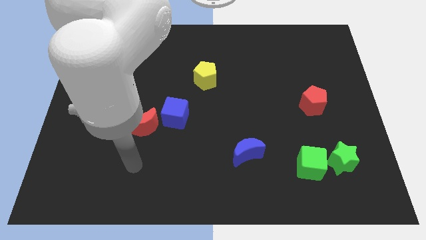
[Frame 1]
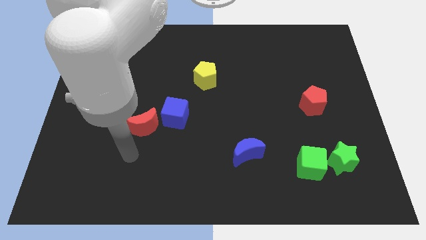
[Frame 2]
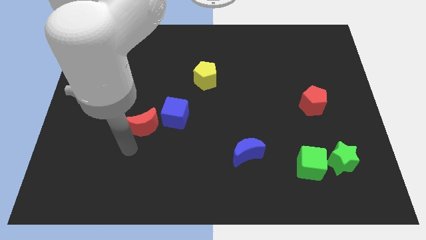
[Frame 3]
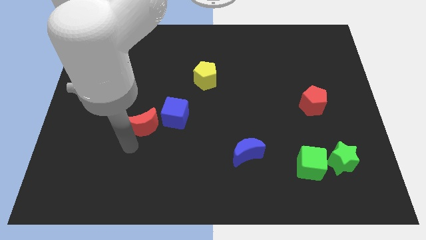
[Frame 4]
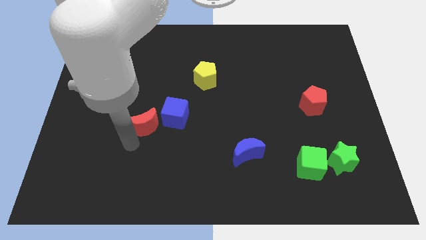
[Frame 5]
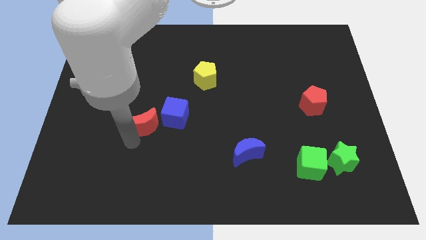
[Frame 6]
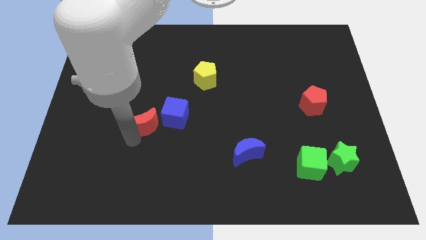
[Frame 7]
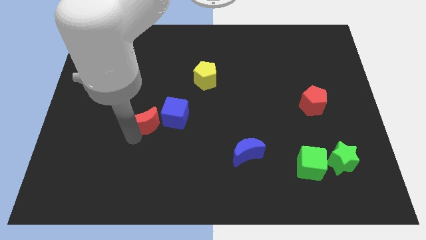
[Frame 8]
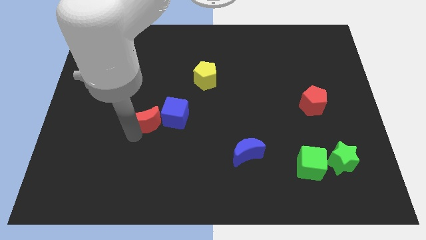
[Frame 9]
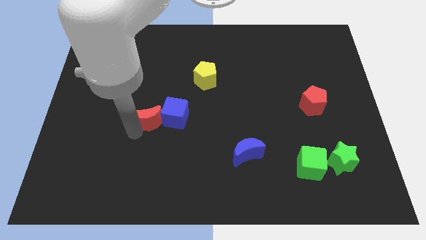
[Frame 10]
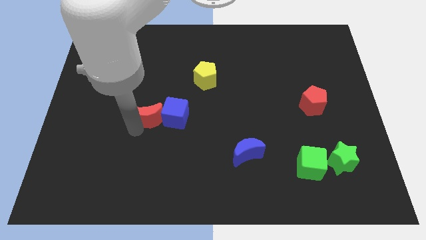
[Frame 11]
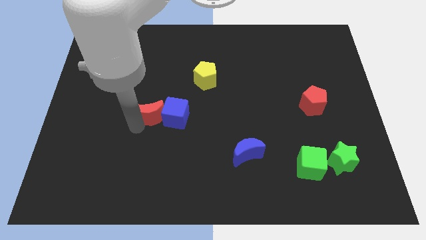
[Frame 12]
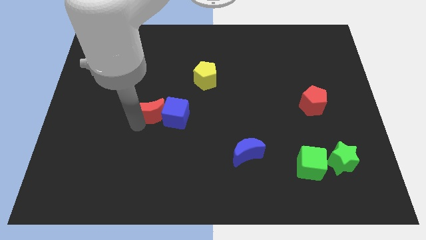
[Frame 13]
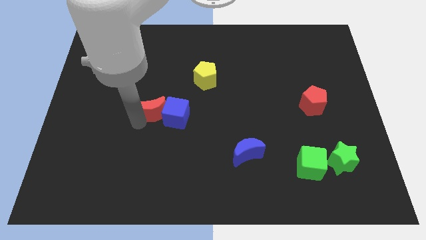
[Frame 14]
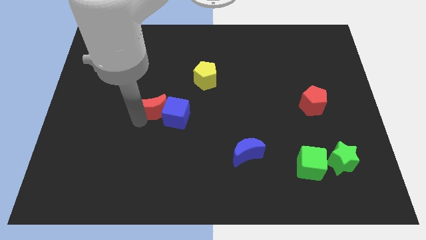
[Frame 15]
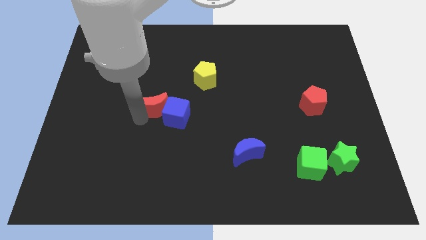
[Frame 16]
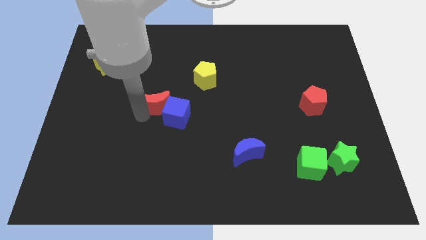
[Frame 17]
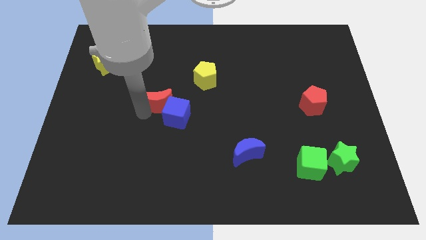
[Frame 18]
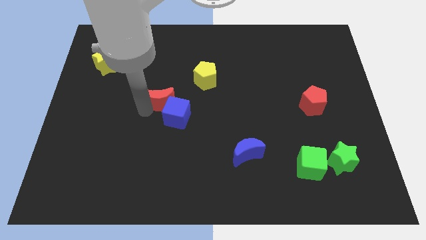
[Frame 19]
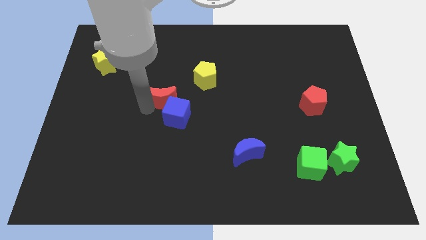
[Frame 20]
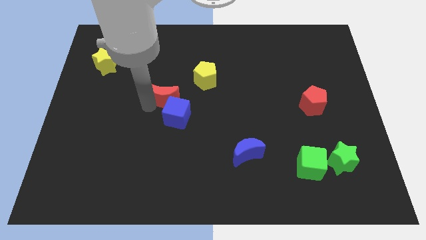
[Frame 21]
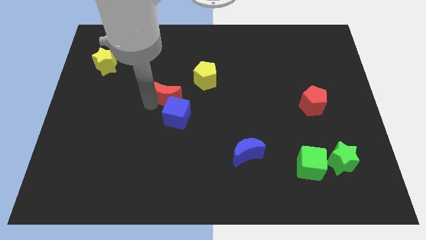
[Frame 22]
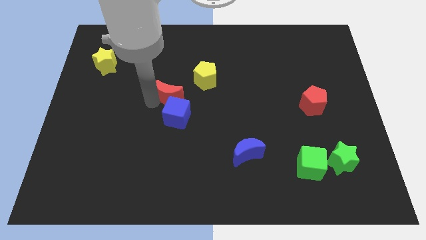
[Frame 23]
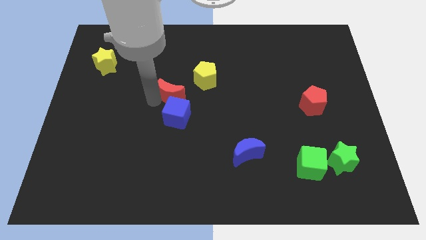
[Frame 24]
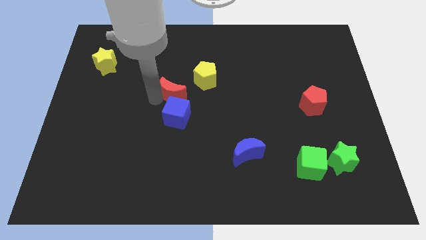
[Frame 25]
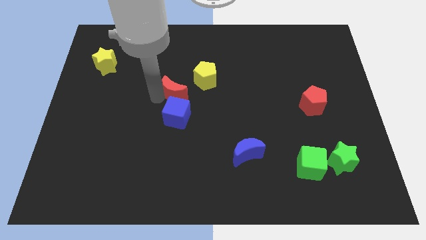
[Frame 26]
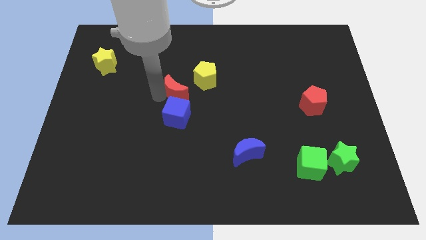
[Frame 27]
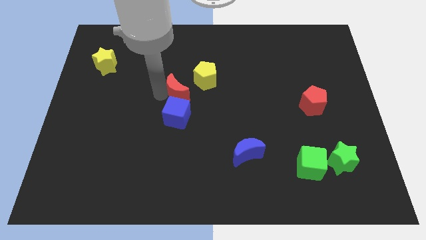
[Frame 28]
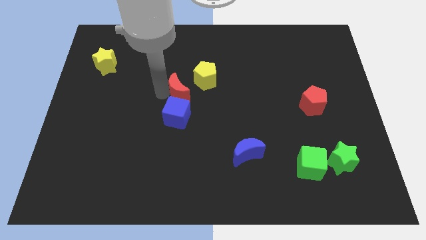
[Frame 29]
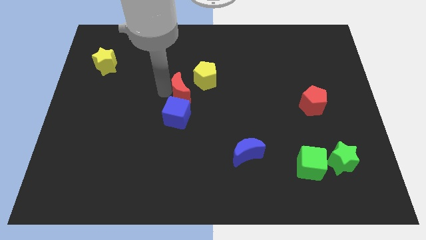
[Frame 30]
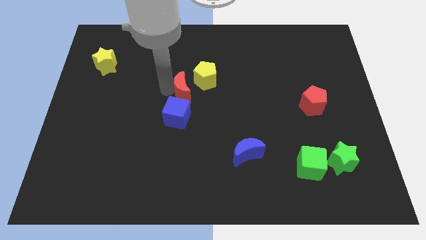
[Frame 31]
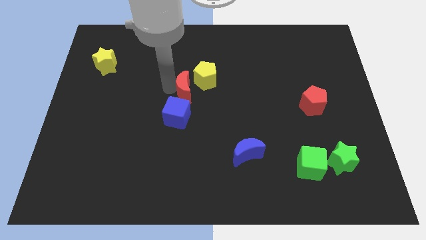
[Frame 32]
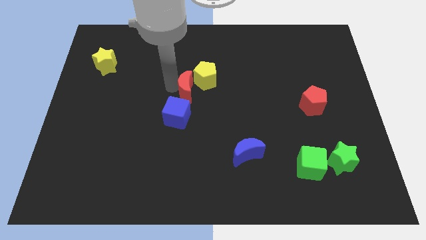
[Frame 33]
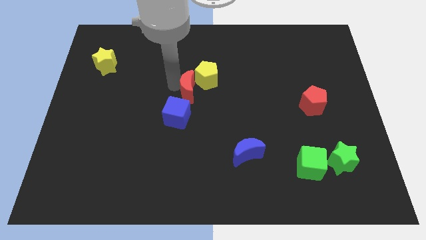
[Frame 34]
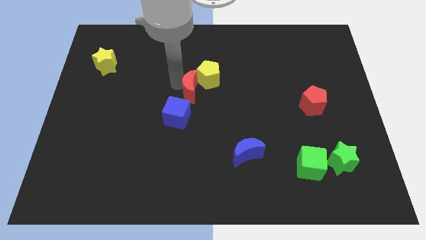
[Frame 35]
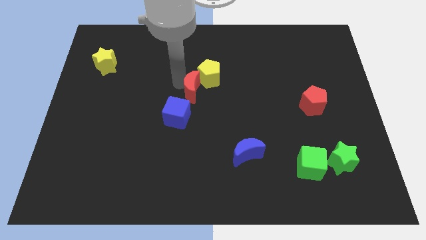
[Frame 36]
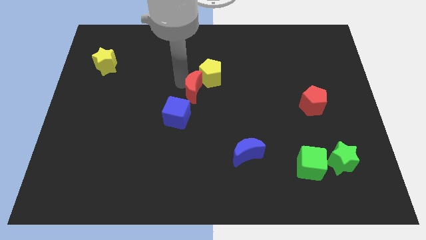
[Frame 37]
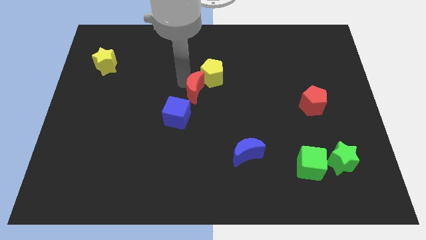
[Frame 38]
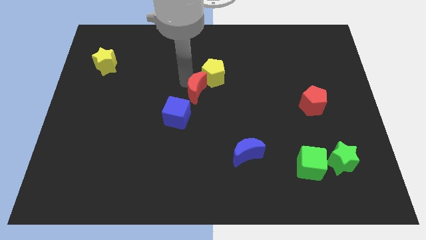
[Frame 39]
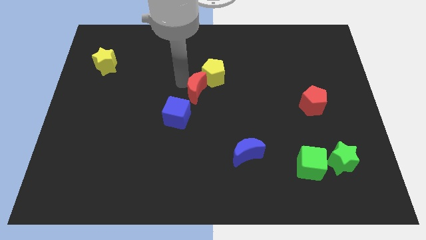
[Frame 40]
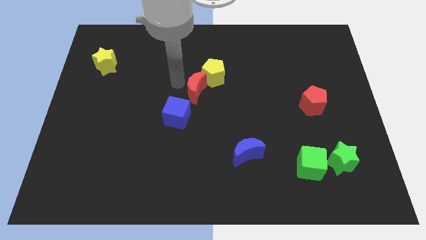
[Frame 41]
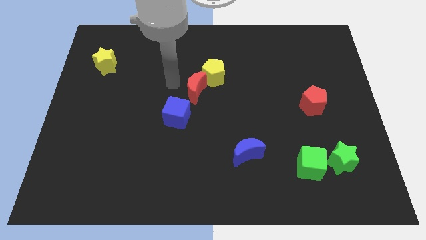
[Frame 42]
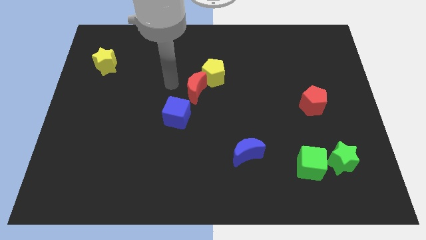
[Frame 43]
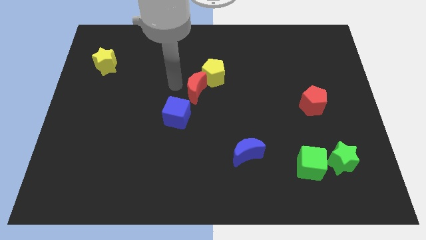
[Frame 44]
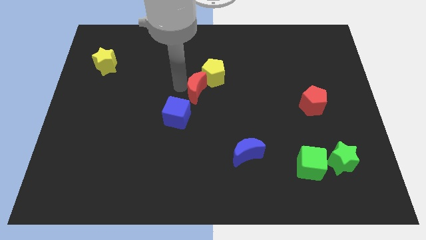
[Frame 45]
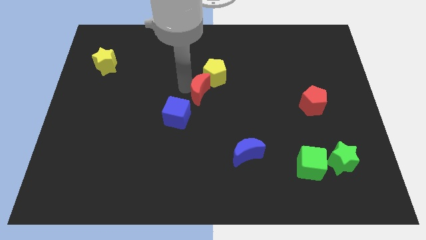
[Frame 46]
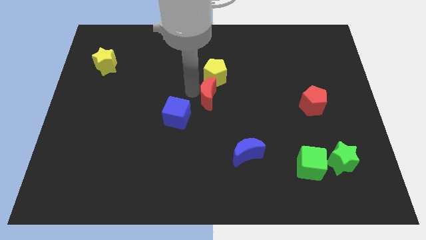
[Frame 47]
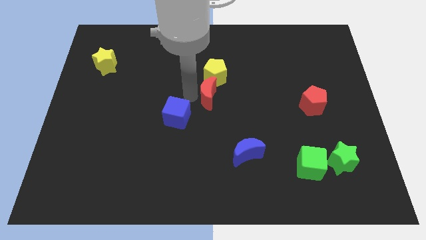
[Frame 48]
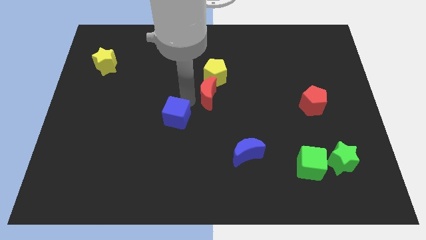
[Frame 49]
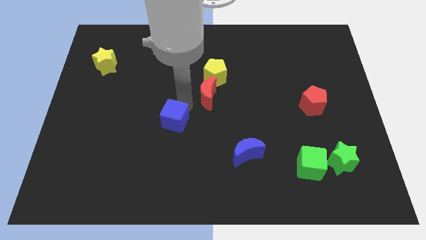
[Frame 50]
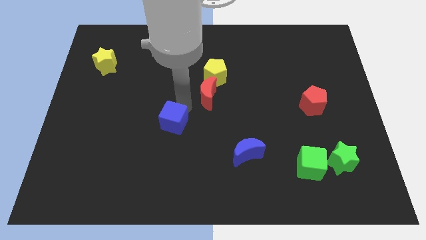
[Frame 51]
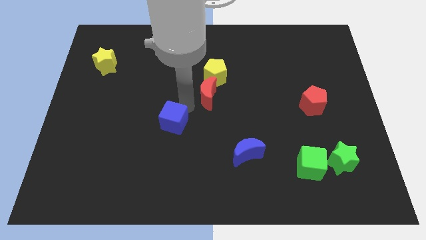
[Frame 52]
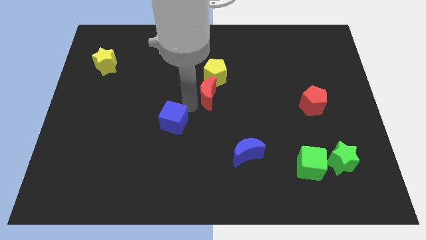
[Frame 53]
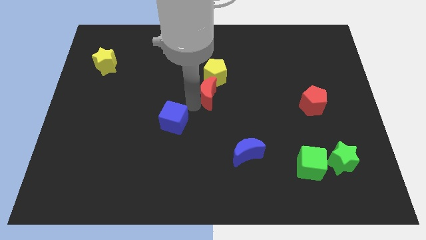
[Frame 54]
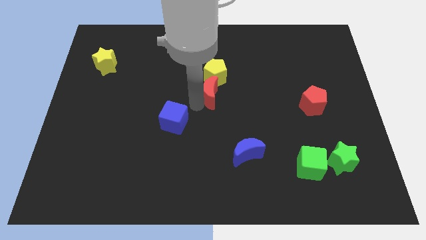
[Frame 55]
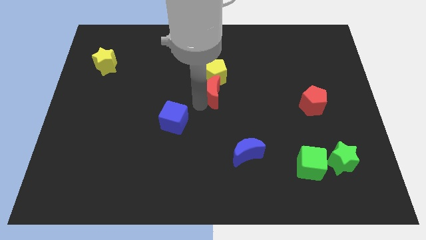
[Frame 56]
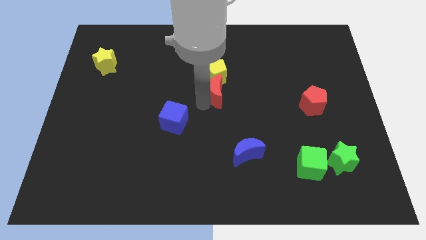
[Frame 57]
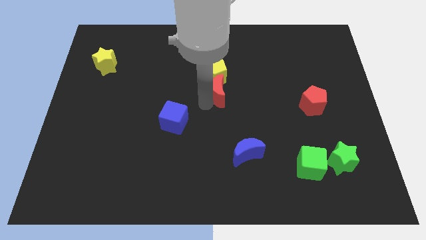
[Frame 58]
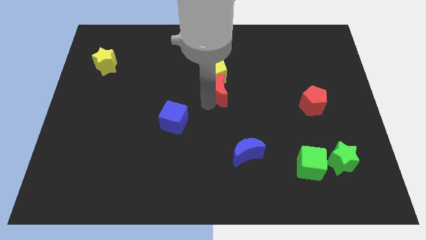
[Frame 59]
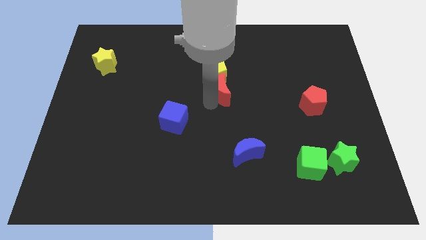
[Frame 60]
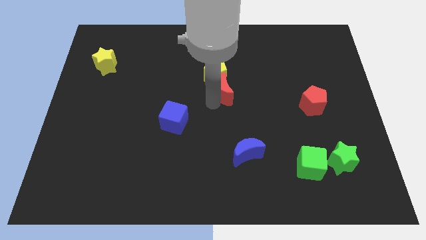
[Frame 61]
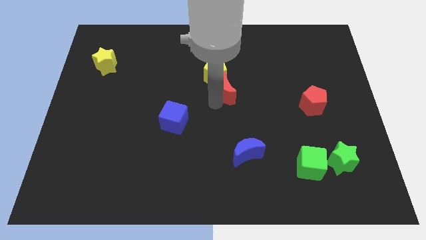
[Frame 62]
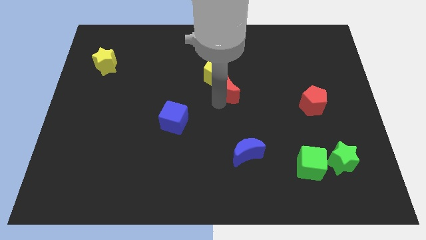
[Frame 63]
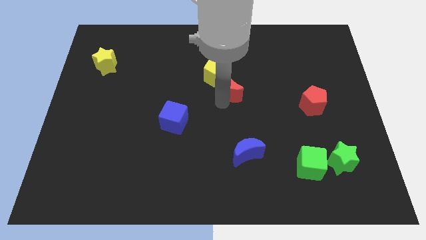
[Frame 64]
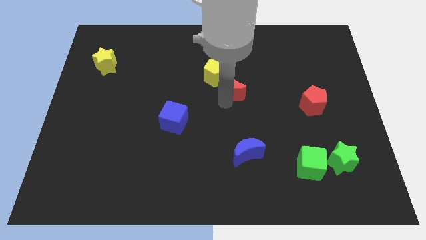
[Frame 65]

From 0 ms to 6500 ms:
push the red moon upwards and right diagonally

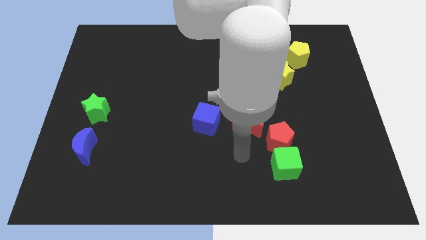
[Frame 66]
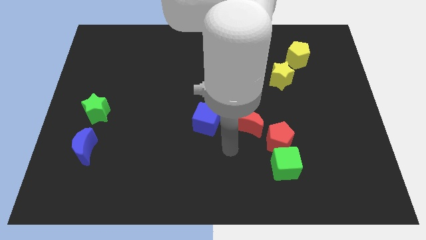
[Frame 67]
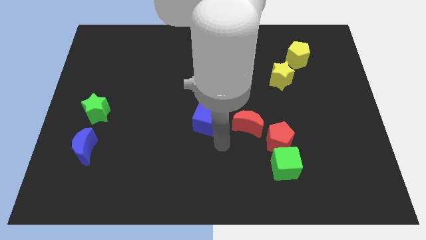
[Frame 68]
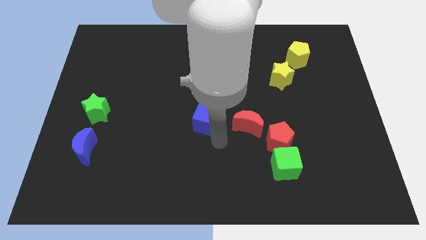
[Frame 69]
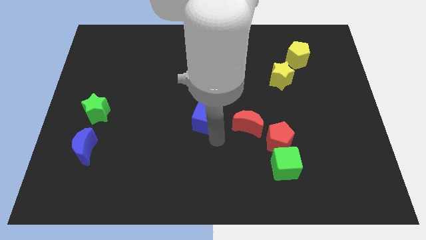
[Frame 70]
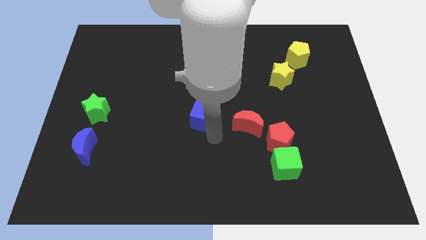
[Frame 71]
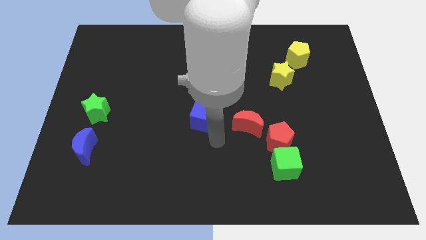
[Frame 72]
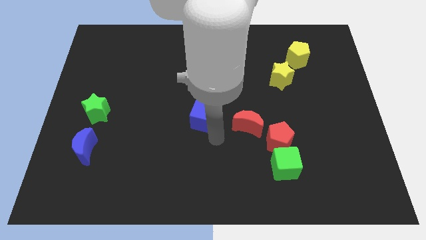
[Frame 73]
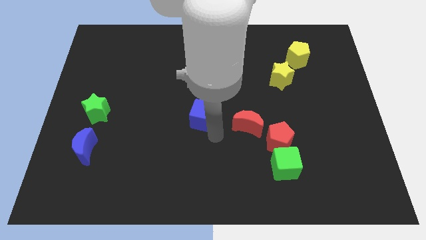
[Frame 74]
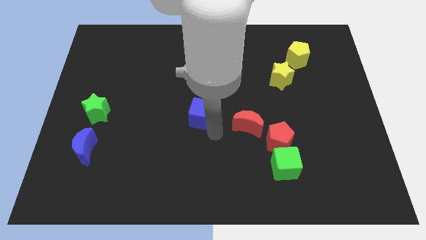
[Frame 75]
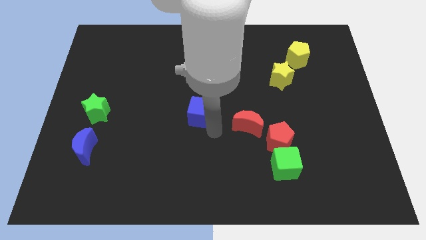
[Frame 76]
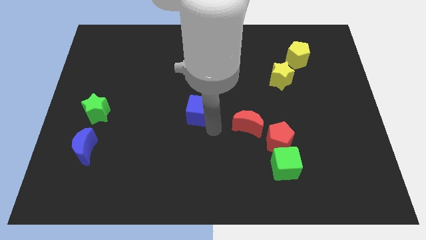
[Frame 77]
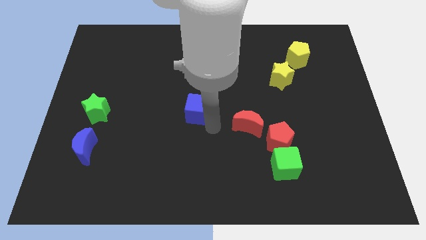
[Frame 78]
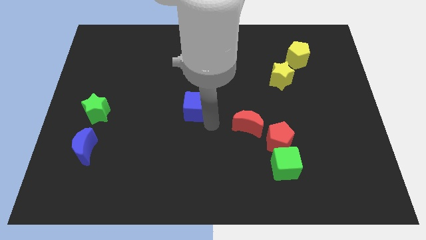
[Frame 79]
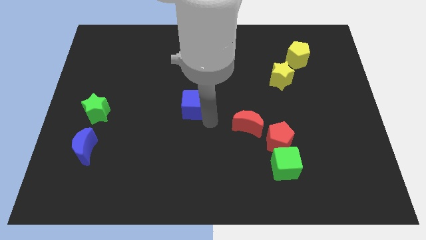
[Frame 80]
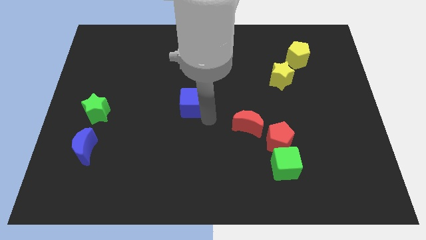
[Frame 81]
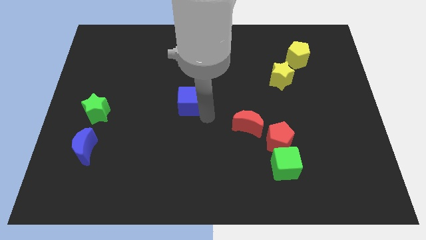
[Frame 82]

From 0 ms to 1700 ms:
slide the blue cube up and to the left diagonally a little bit
